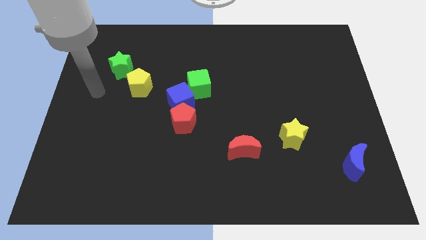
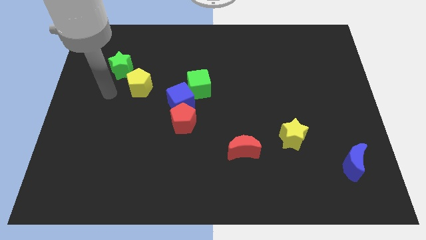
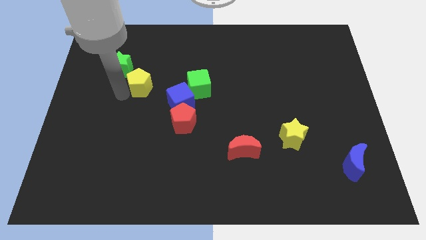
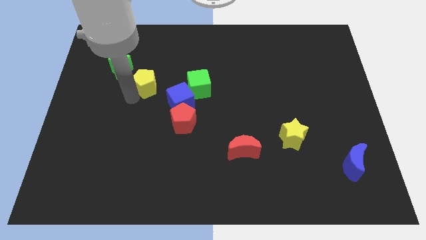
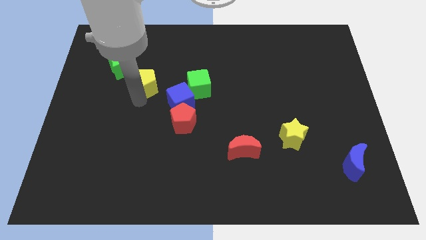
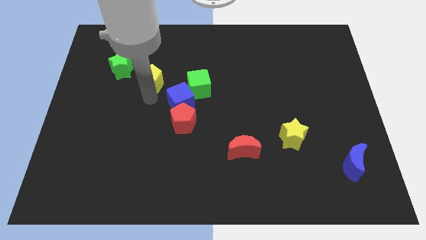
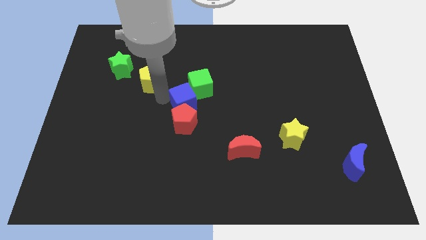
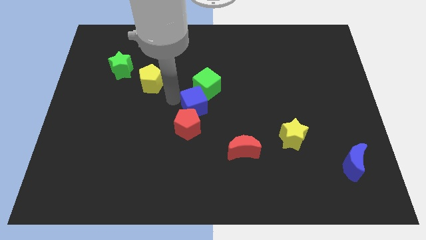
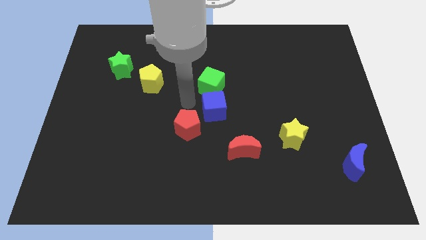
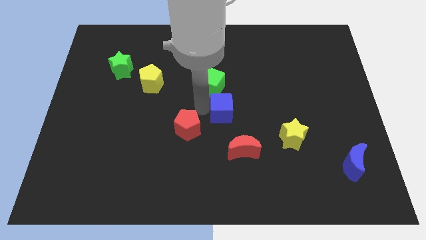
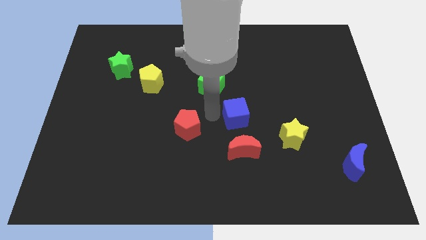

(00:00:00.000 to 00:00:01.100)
pull the red pentagon apart from the blue cube

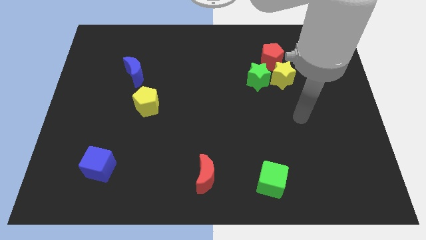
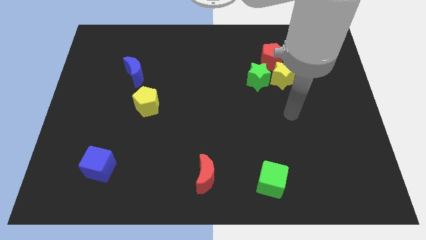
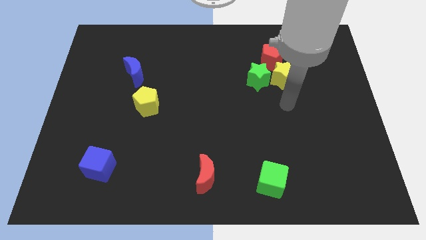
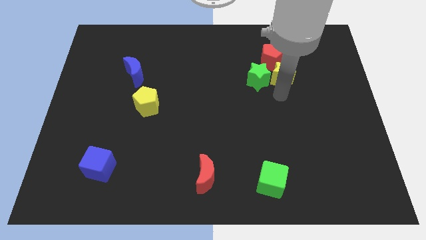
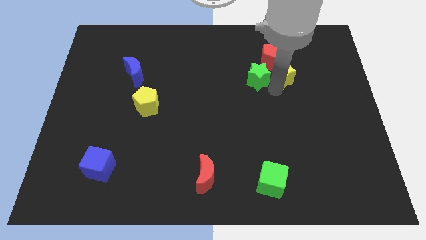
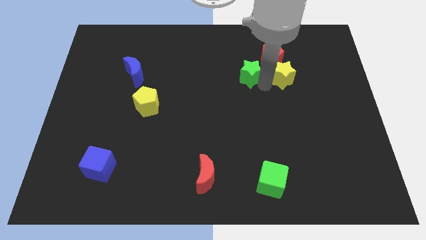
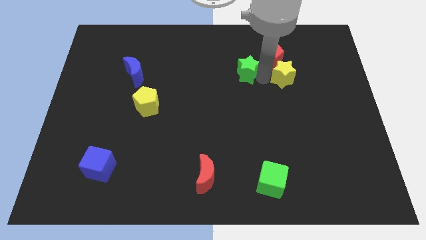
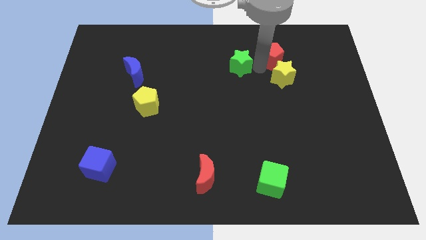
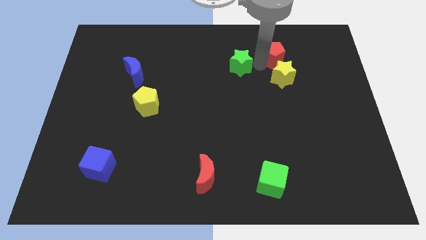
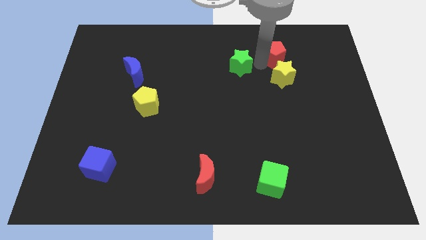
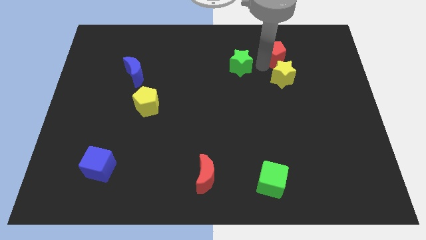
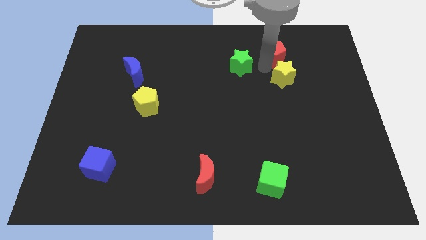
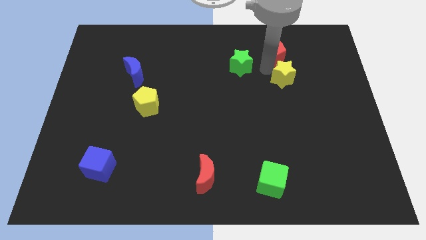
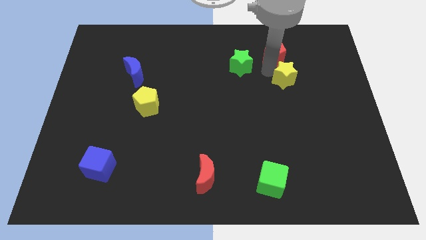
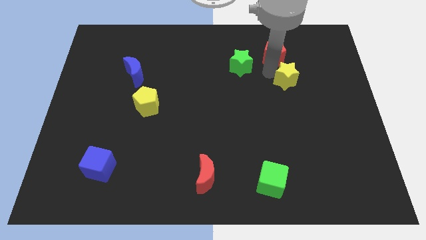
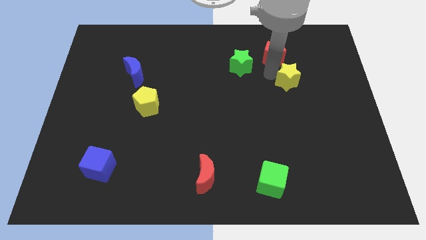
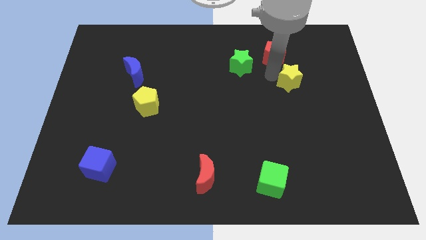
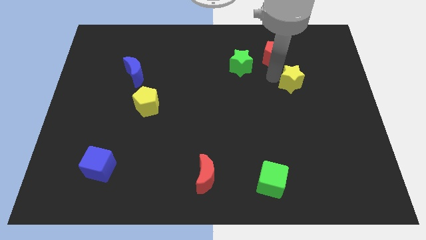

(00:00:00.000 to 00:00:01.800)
separate the yellow star from the green star and red pentagon

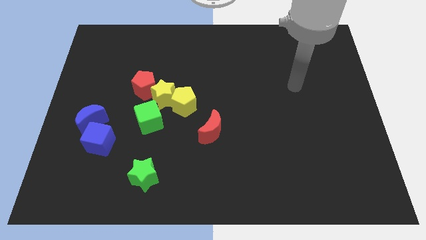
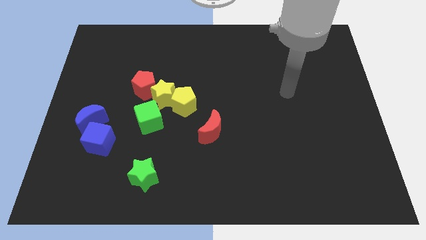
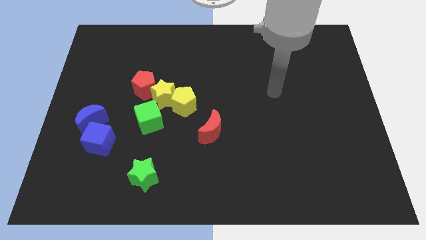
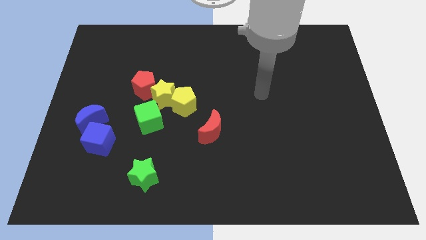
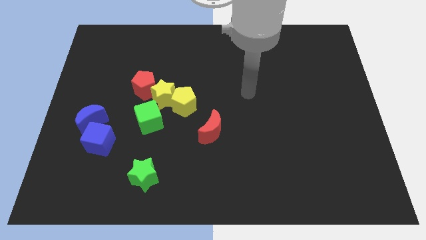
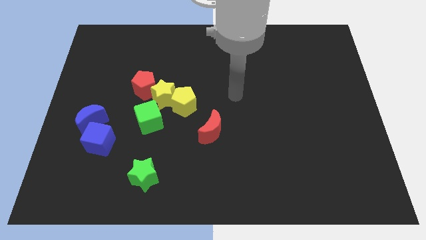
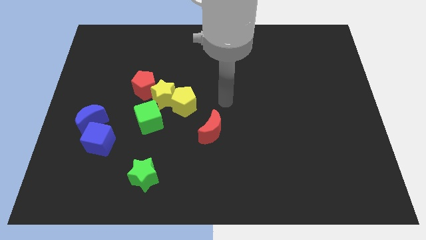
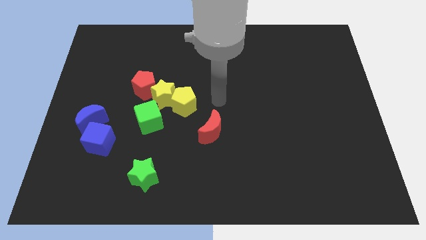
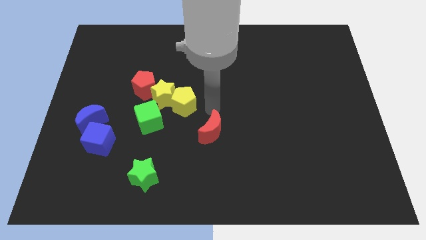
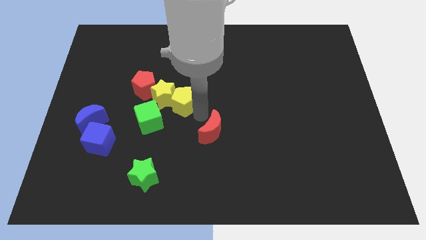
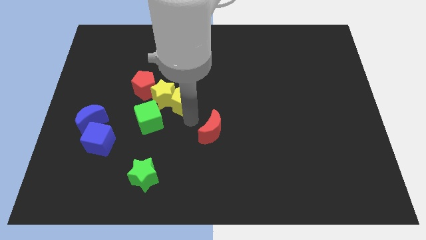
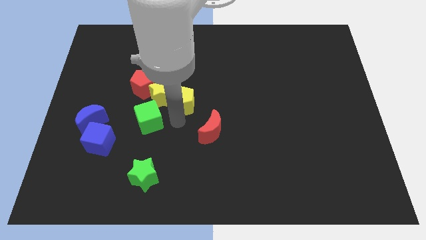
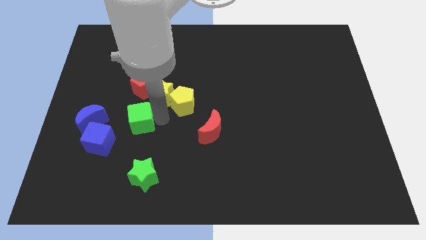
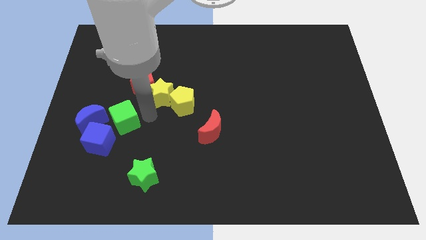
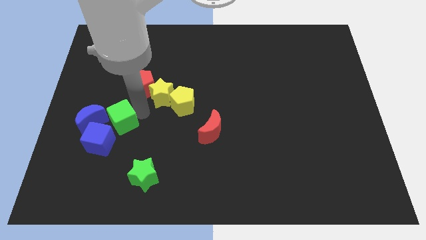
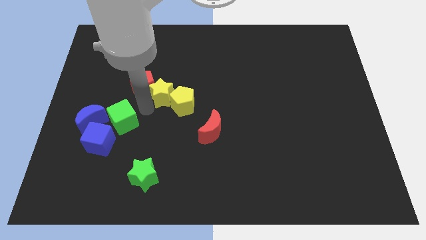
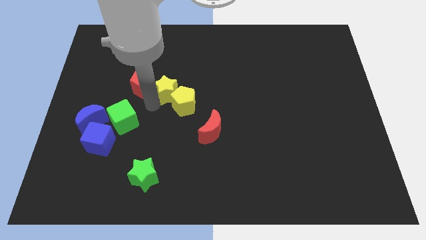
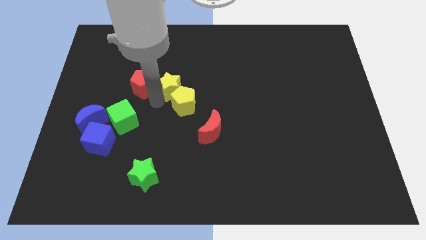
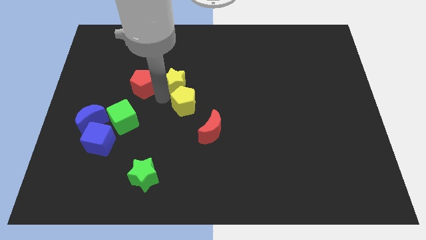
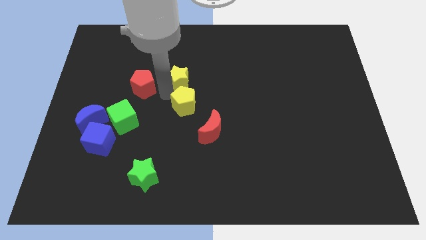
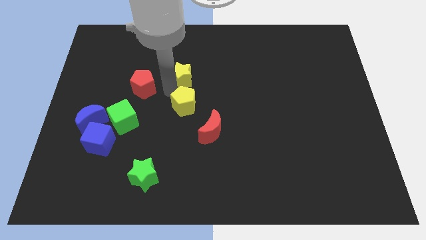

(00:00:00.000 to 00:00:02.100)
separate the yellow star from the group

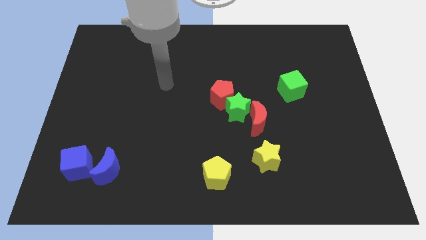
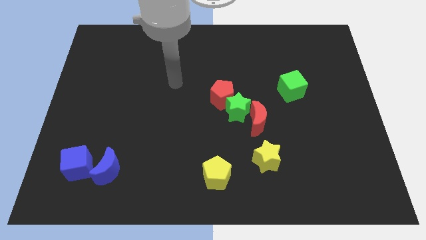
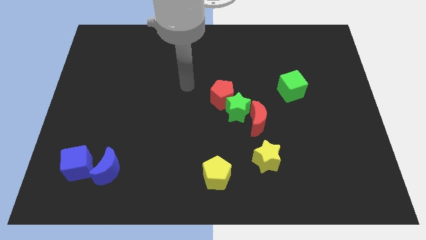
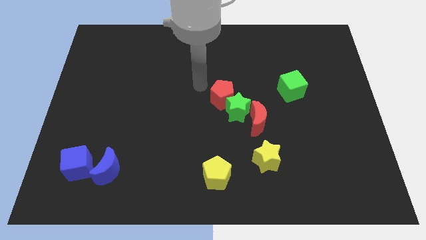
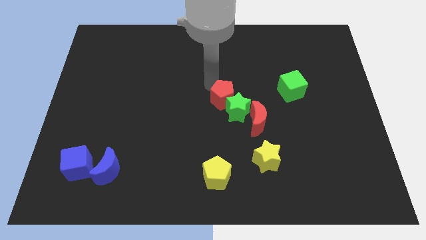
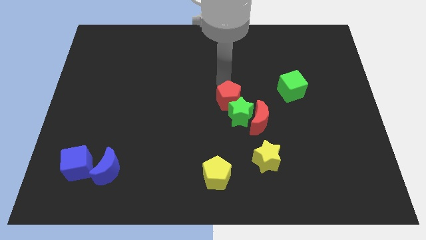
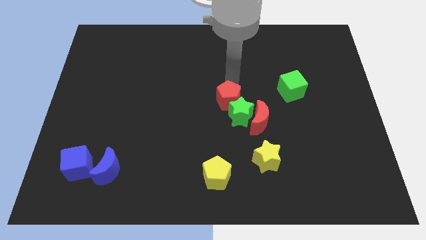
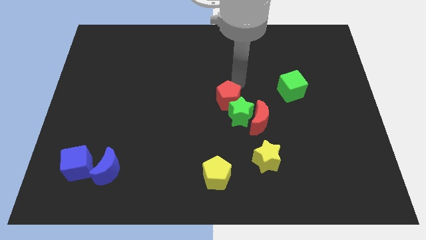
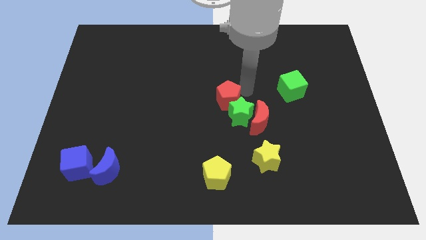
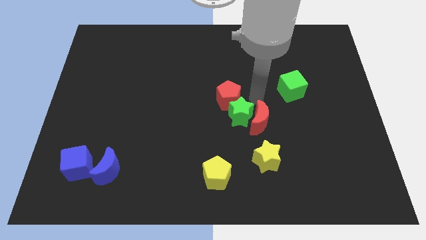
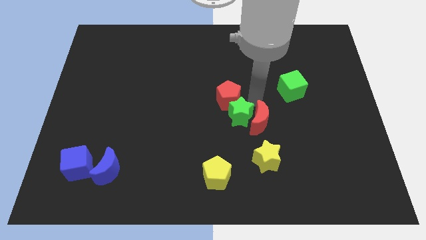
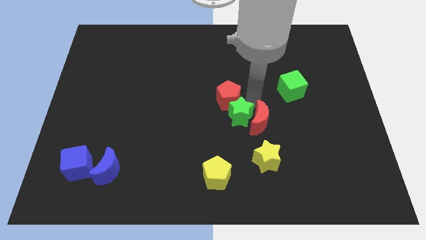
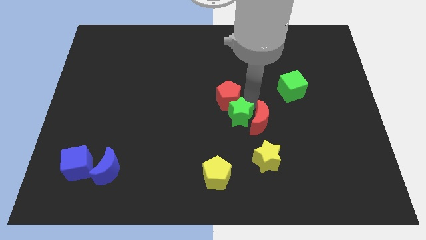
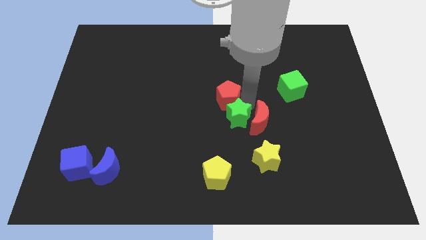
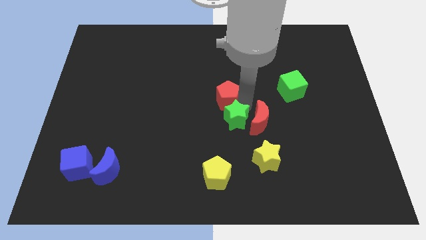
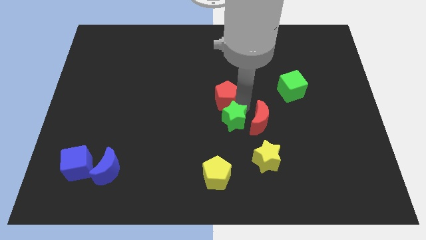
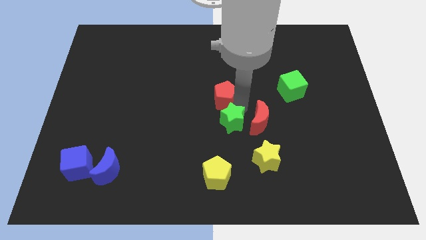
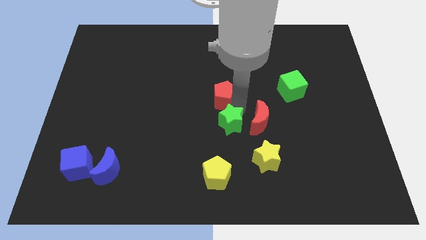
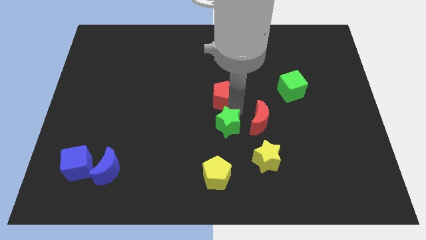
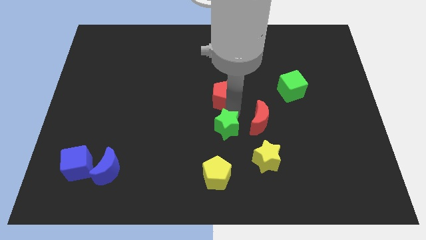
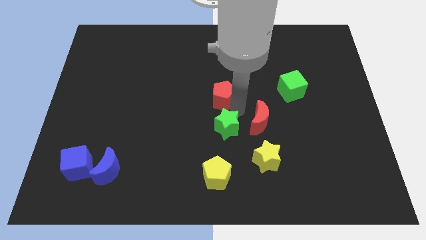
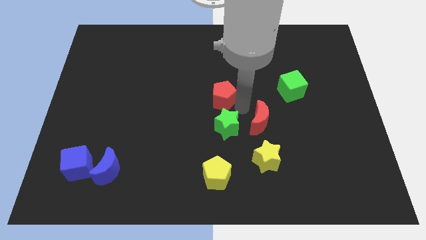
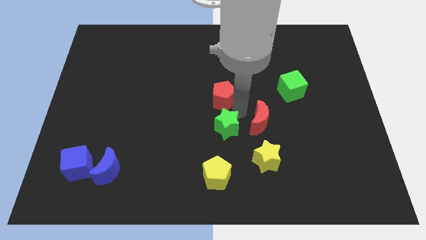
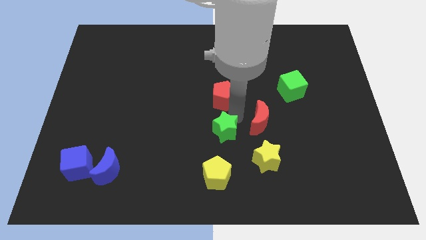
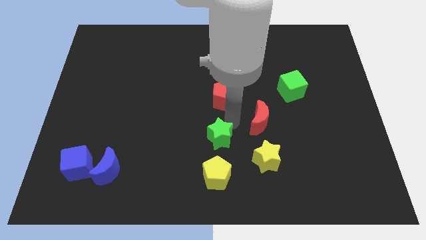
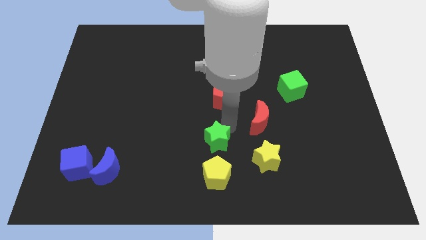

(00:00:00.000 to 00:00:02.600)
move the green star away from the red moon and red pentagon

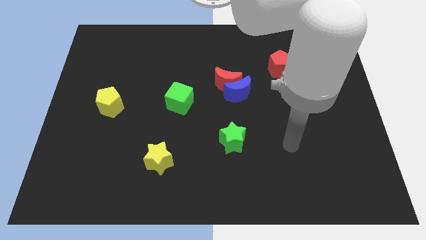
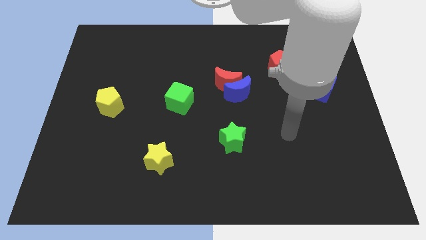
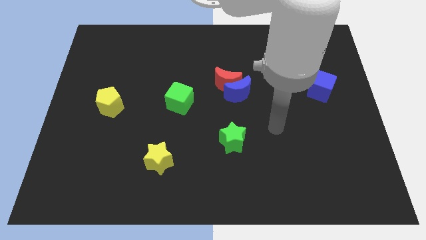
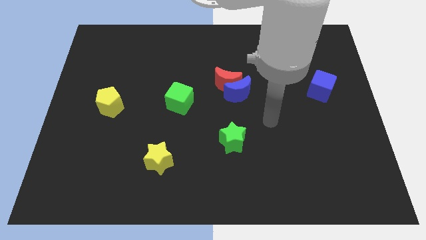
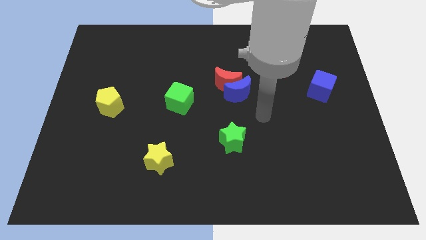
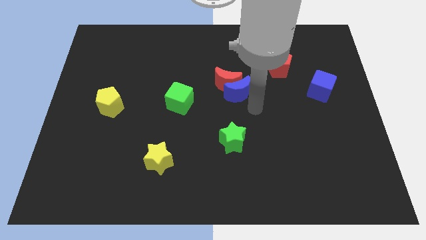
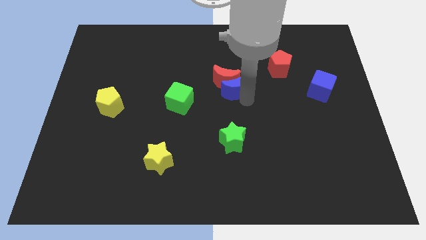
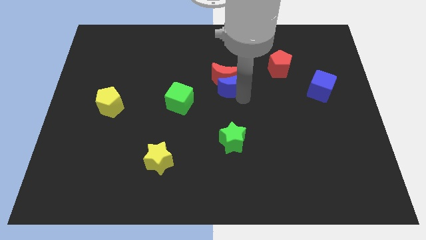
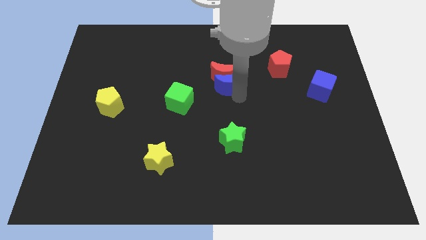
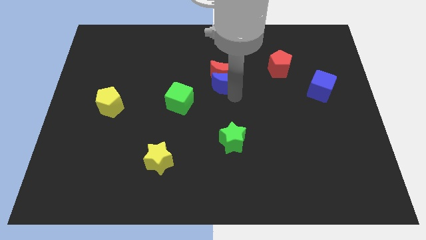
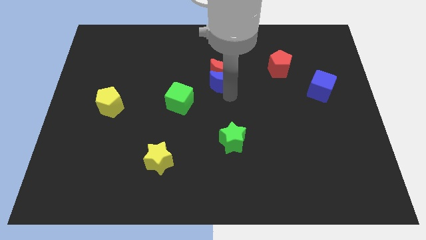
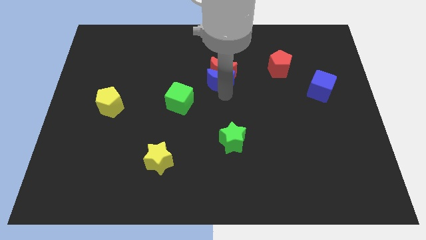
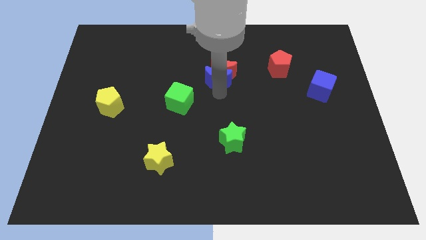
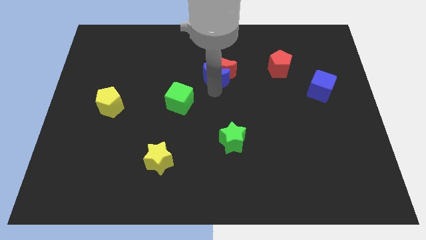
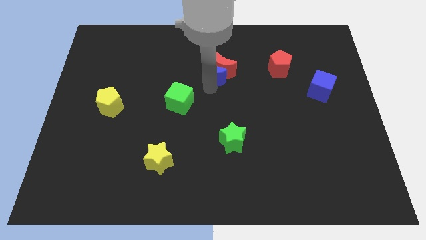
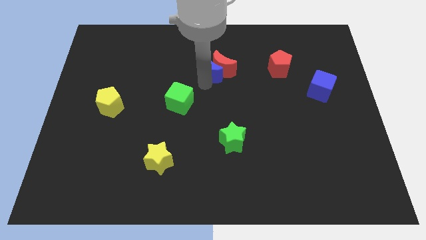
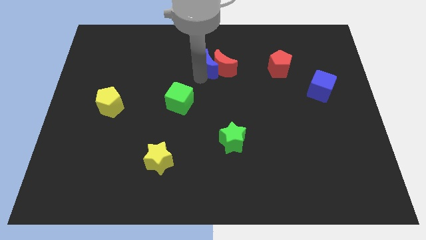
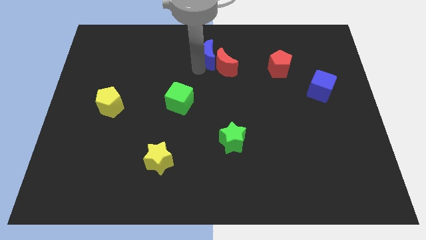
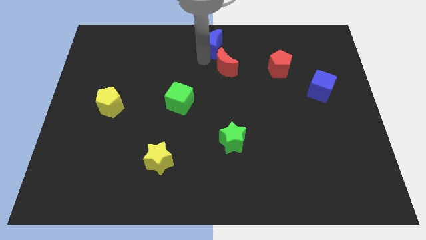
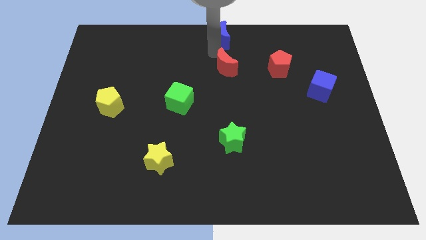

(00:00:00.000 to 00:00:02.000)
pull the red moon apart from the blue moon
